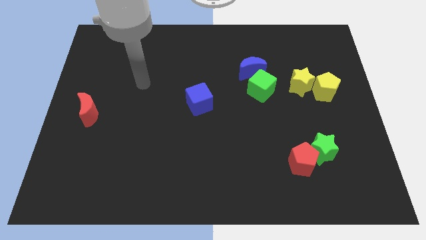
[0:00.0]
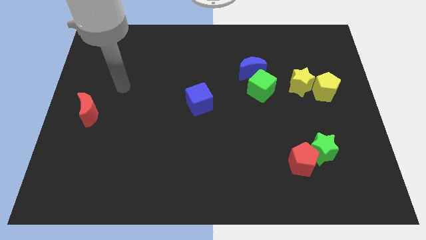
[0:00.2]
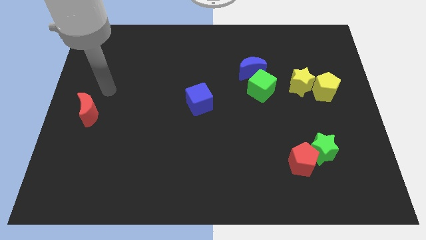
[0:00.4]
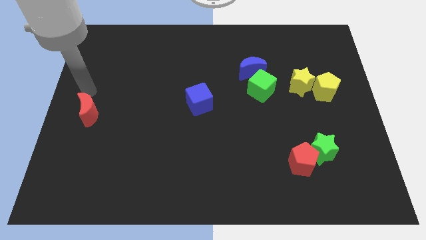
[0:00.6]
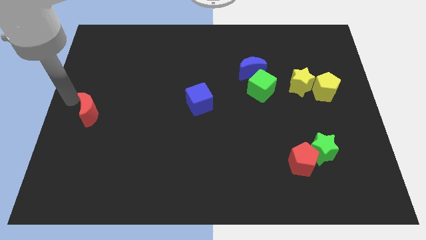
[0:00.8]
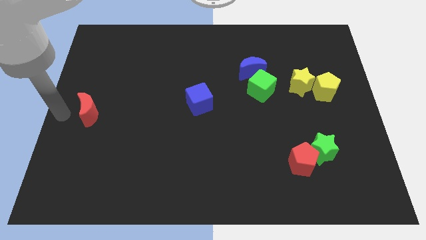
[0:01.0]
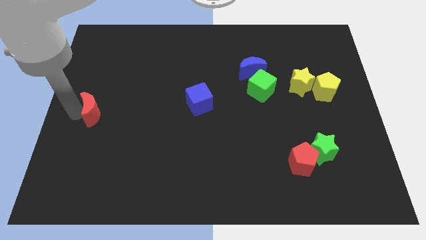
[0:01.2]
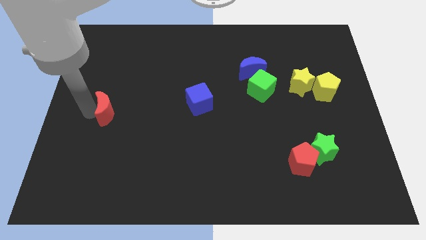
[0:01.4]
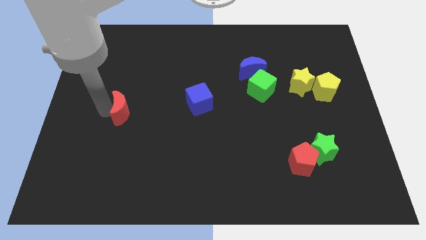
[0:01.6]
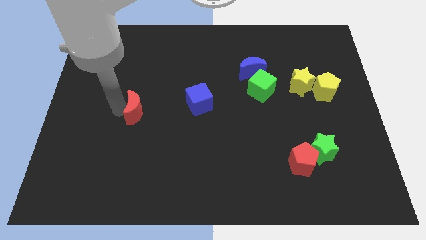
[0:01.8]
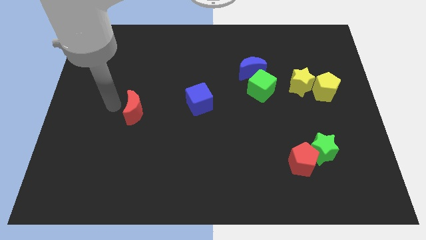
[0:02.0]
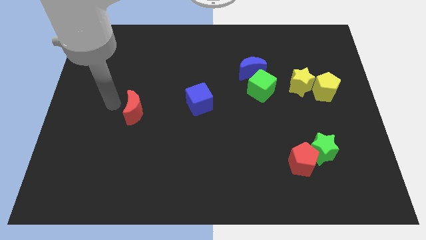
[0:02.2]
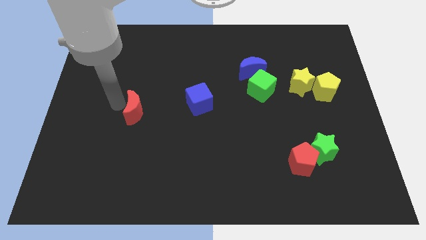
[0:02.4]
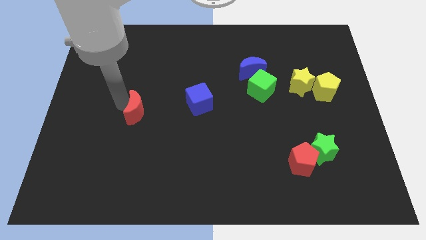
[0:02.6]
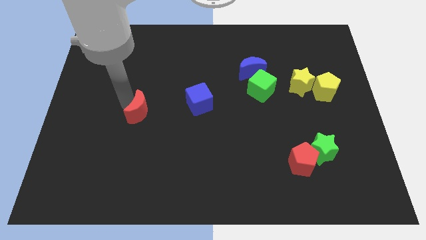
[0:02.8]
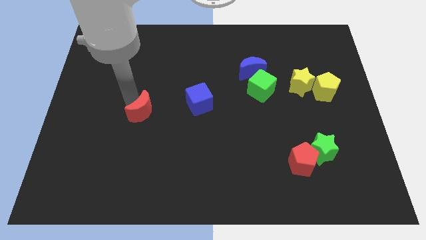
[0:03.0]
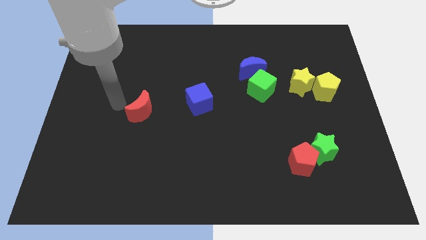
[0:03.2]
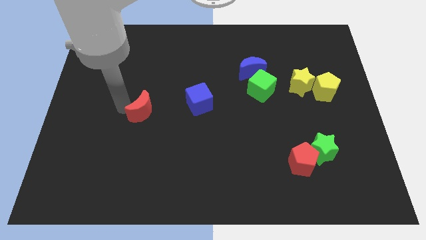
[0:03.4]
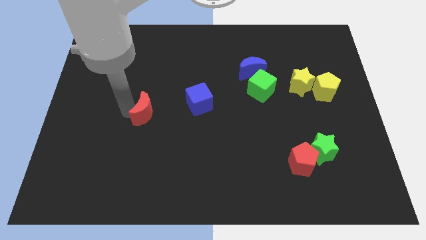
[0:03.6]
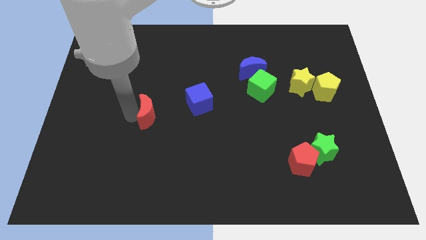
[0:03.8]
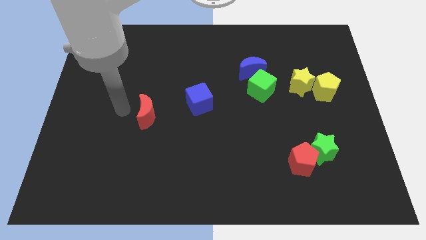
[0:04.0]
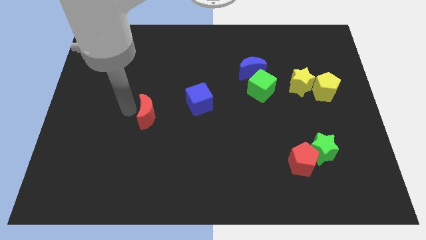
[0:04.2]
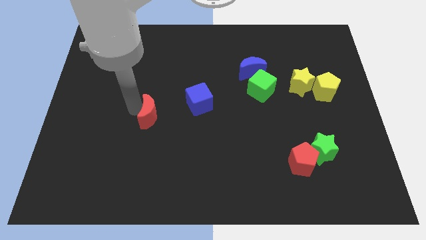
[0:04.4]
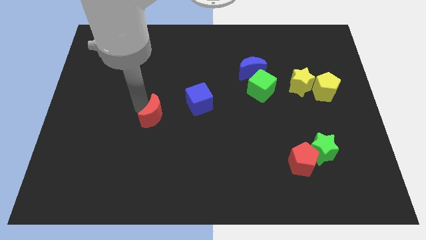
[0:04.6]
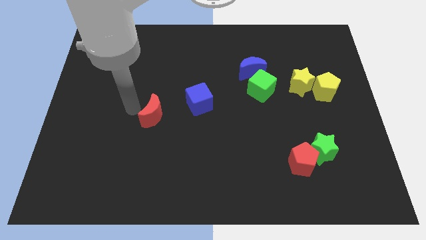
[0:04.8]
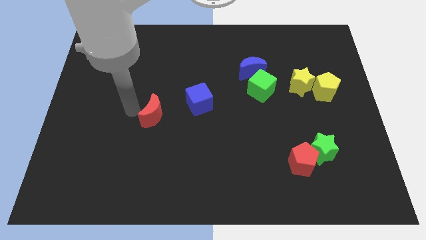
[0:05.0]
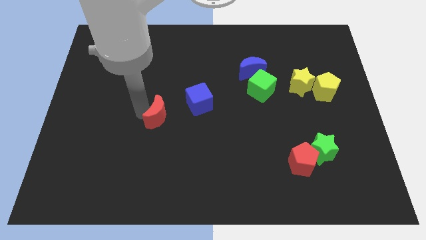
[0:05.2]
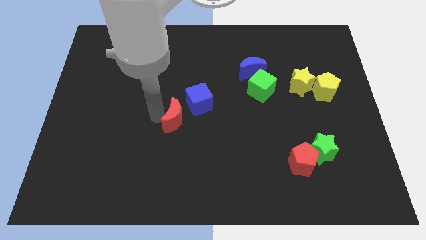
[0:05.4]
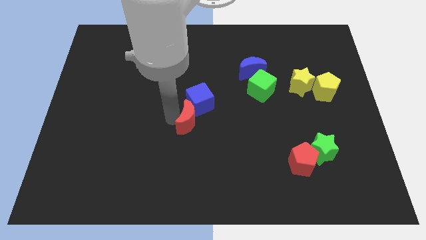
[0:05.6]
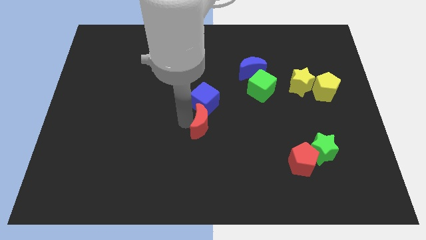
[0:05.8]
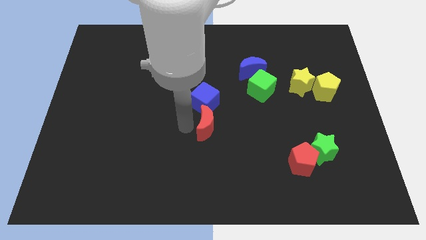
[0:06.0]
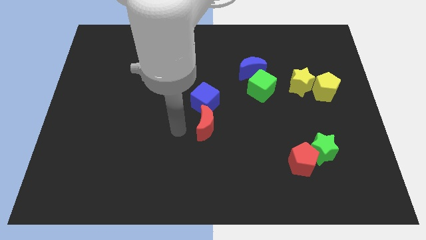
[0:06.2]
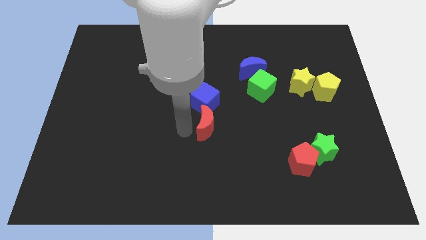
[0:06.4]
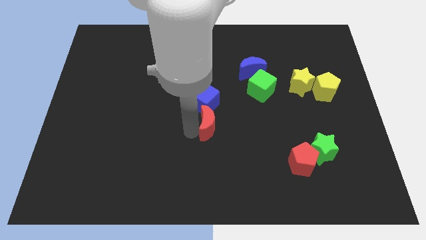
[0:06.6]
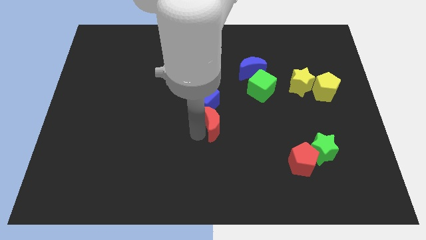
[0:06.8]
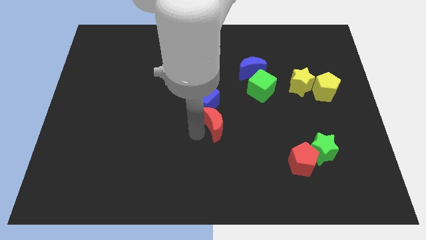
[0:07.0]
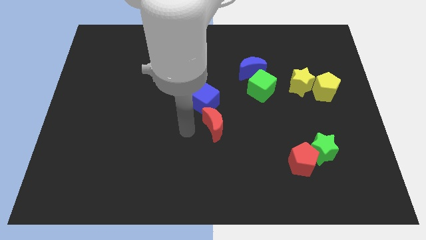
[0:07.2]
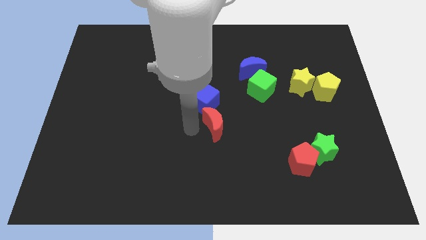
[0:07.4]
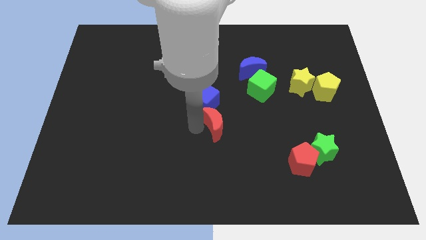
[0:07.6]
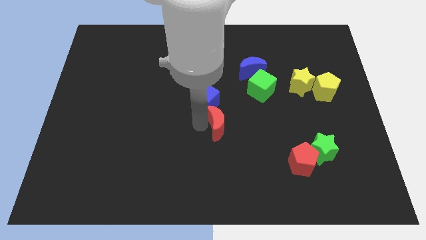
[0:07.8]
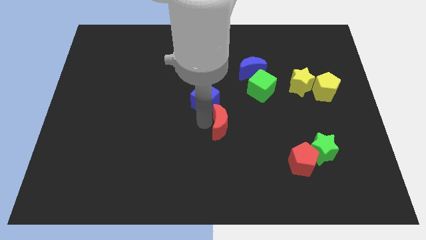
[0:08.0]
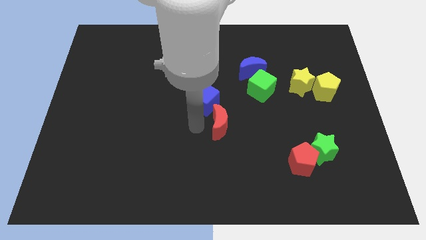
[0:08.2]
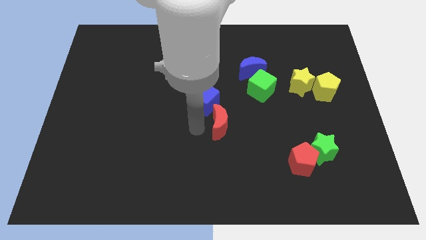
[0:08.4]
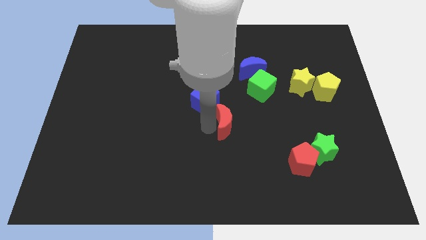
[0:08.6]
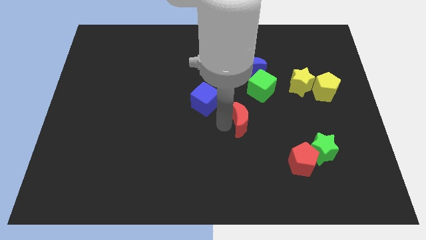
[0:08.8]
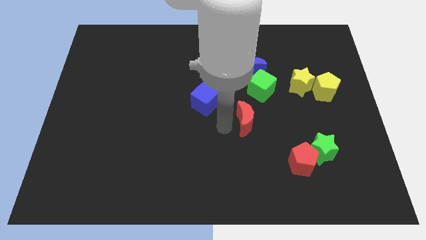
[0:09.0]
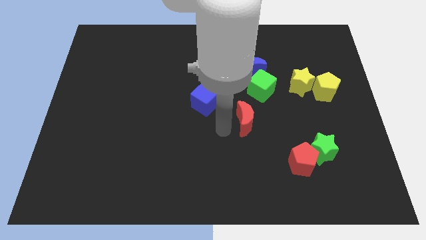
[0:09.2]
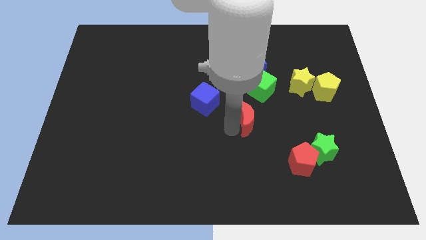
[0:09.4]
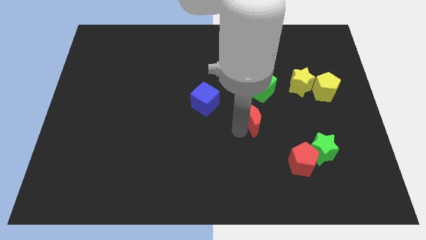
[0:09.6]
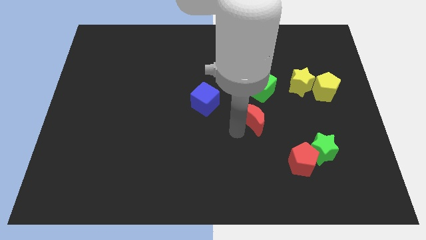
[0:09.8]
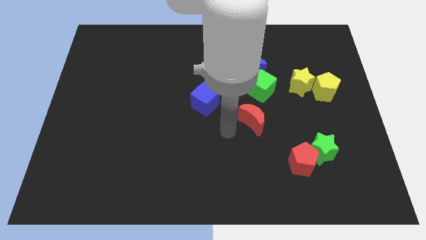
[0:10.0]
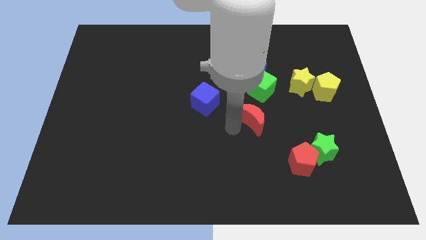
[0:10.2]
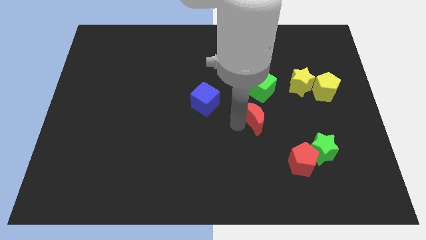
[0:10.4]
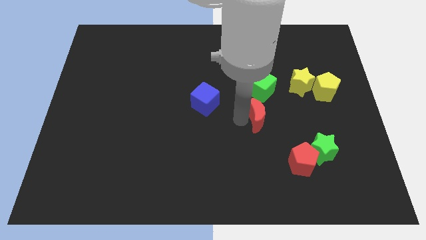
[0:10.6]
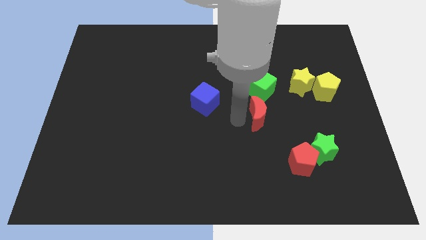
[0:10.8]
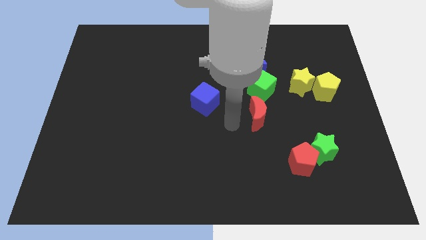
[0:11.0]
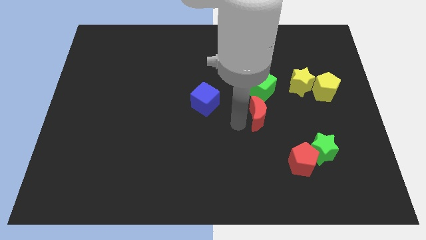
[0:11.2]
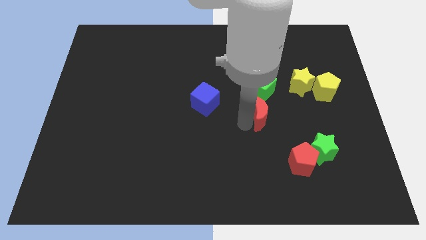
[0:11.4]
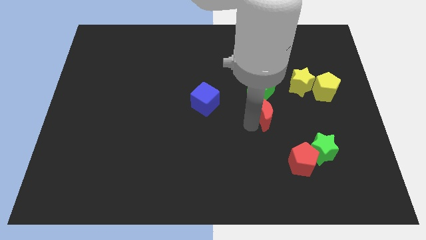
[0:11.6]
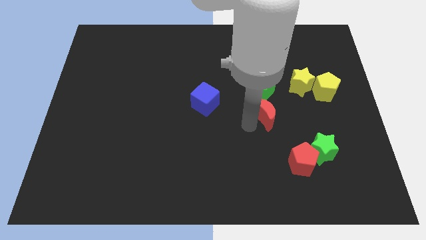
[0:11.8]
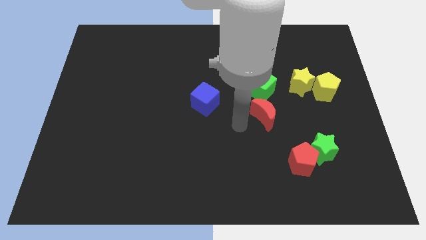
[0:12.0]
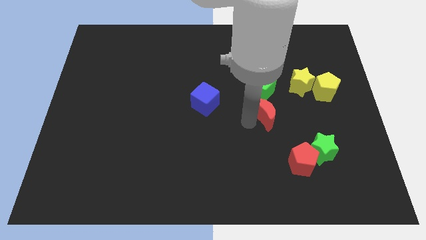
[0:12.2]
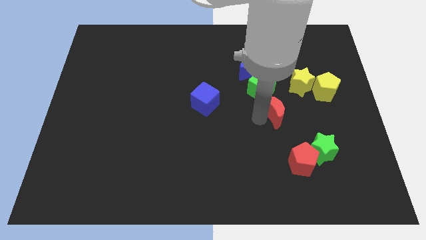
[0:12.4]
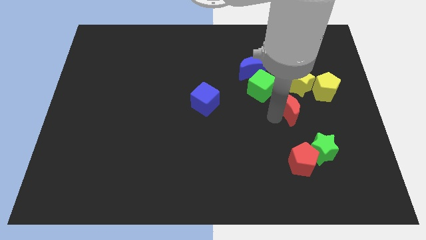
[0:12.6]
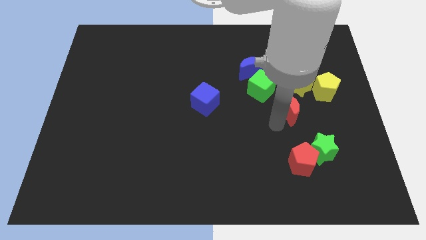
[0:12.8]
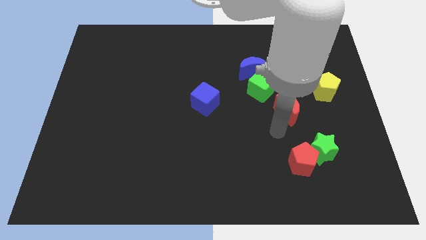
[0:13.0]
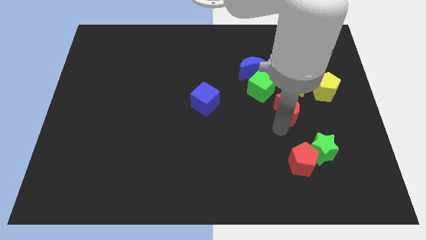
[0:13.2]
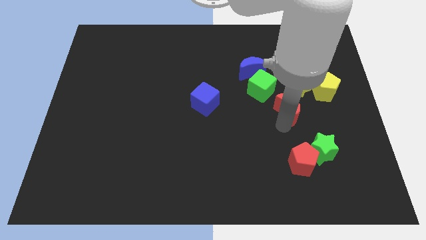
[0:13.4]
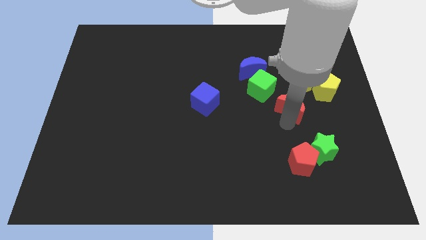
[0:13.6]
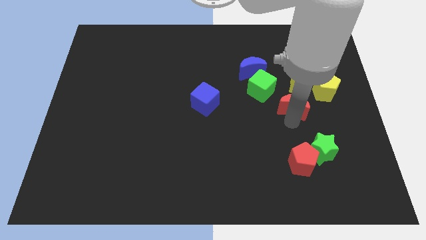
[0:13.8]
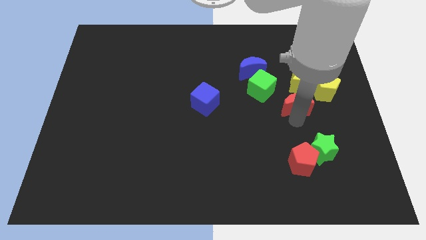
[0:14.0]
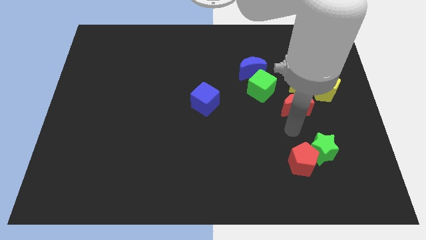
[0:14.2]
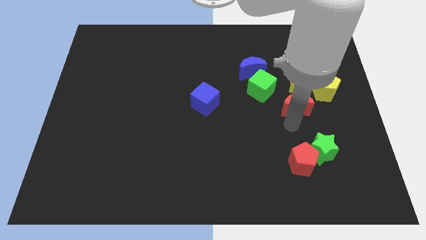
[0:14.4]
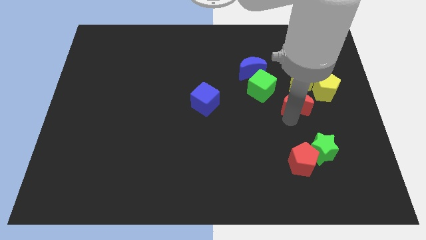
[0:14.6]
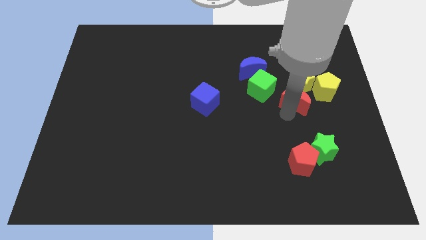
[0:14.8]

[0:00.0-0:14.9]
put the red moon close to the yellow star
